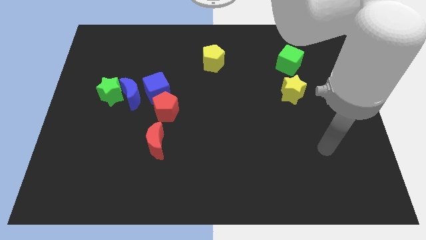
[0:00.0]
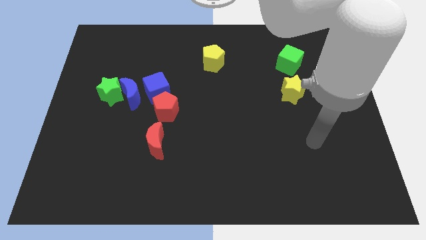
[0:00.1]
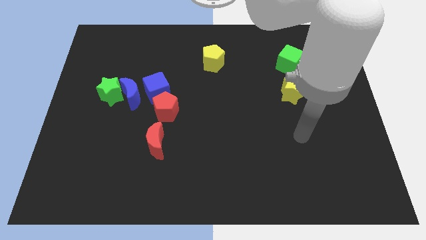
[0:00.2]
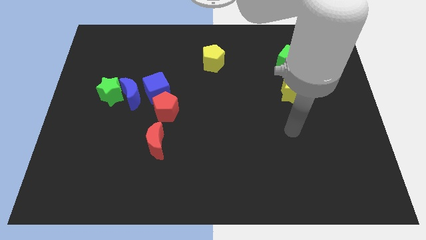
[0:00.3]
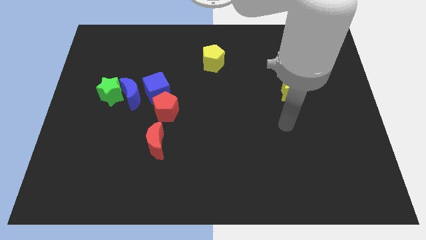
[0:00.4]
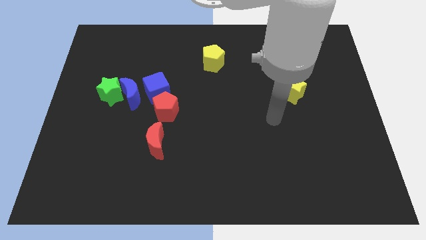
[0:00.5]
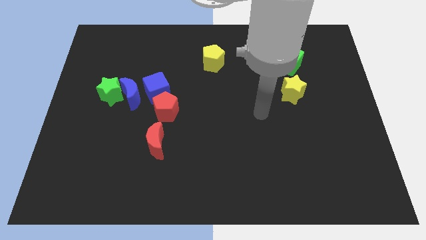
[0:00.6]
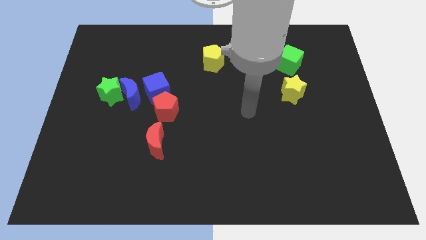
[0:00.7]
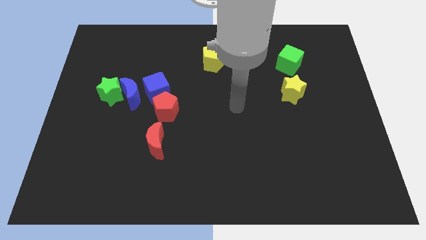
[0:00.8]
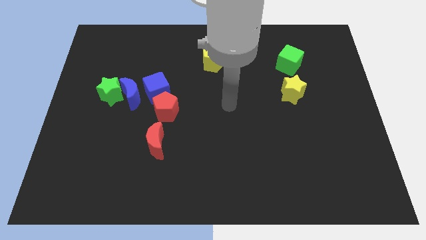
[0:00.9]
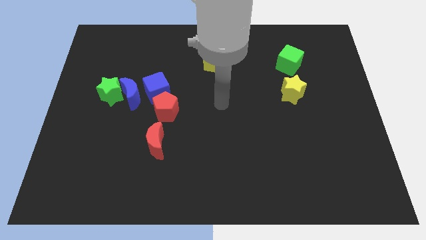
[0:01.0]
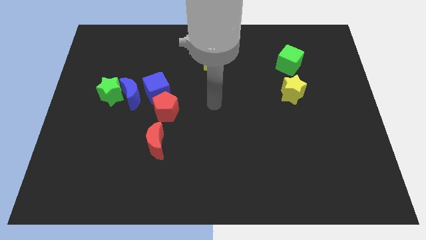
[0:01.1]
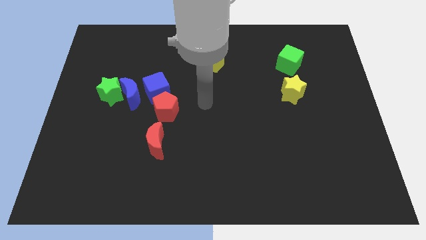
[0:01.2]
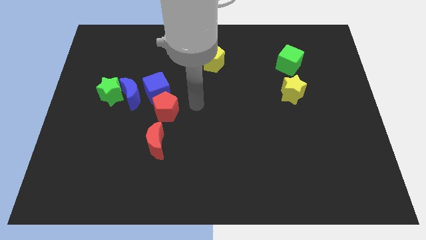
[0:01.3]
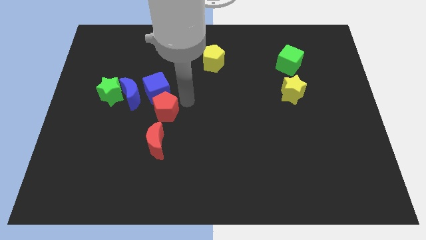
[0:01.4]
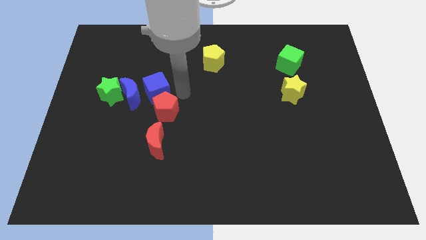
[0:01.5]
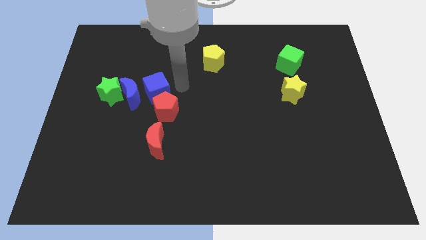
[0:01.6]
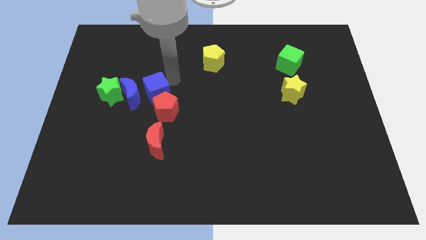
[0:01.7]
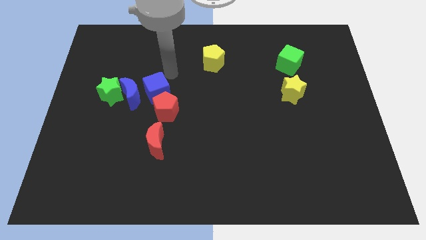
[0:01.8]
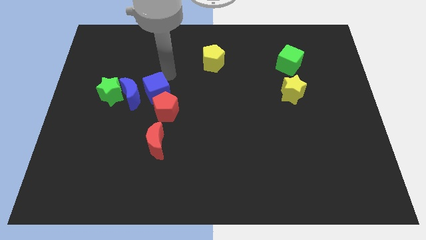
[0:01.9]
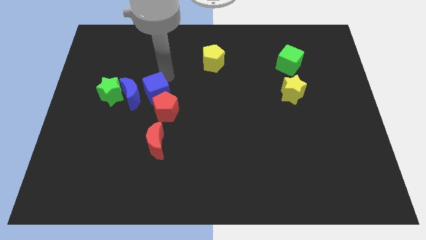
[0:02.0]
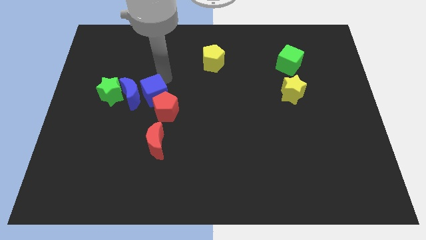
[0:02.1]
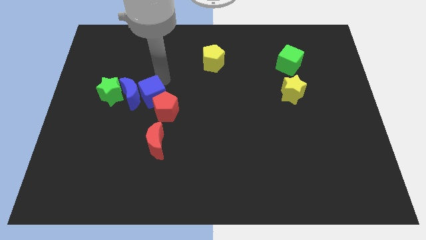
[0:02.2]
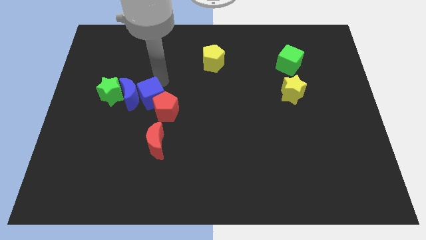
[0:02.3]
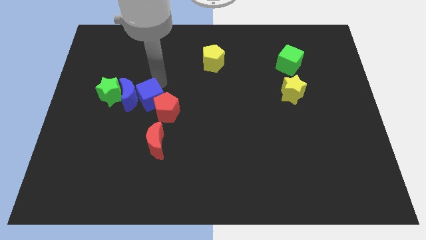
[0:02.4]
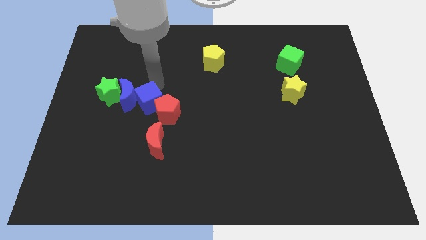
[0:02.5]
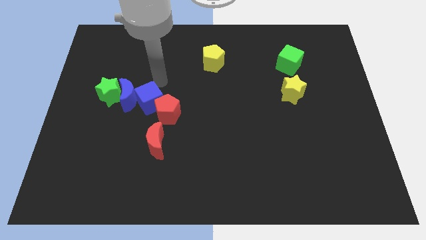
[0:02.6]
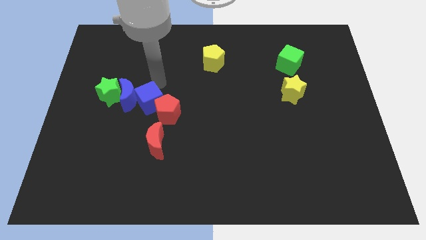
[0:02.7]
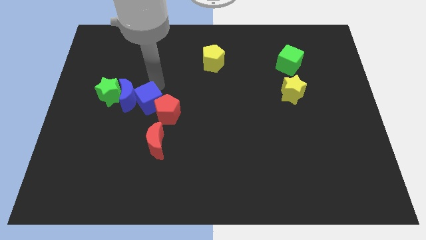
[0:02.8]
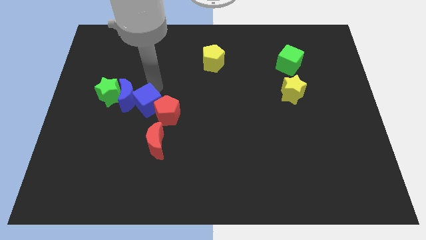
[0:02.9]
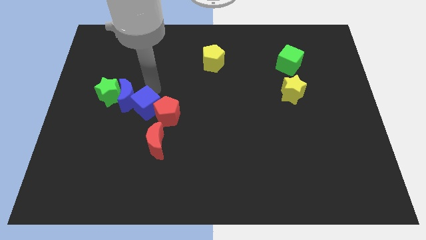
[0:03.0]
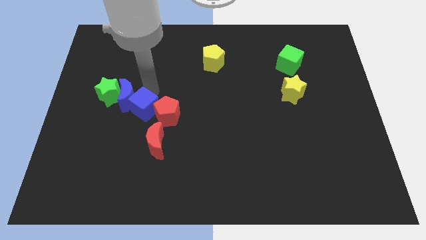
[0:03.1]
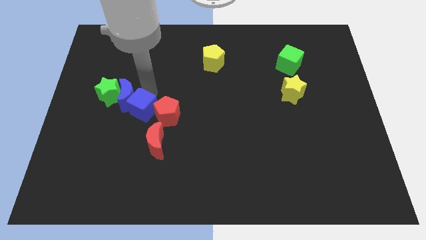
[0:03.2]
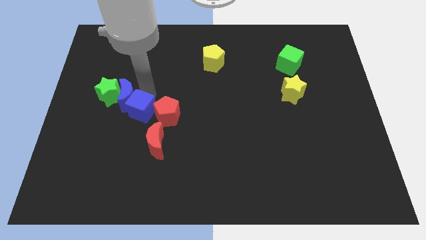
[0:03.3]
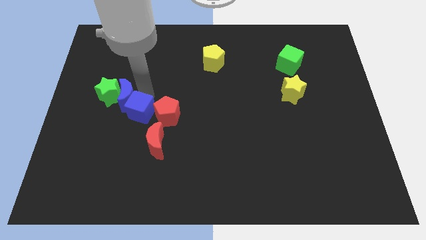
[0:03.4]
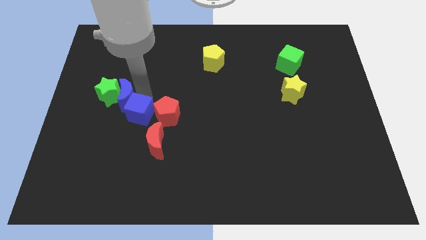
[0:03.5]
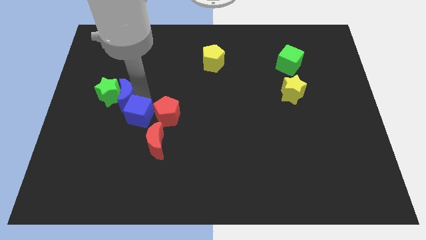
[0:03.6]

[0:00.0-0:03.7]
slide the blue cube down a little bit

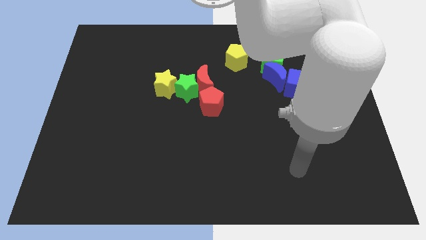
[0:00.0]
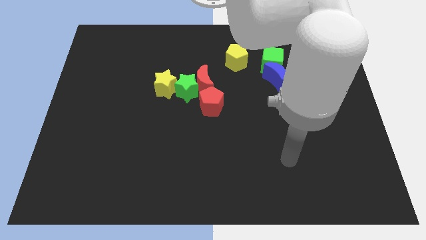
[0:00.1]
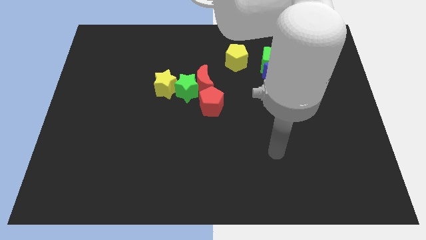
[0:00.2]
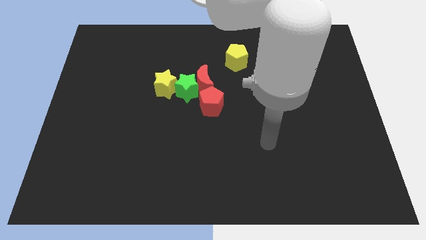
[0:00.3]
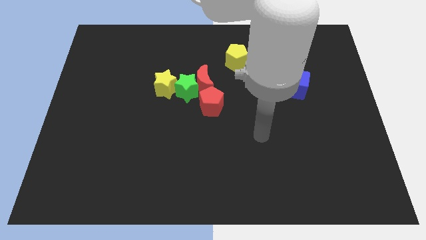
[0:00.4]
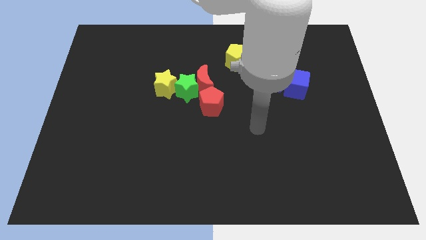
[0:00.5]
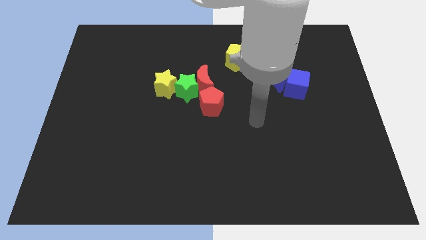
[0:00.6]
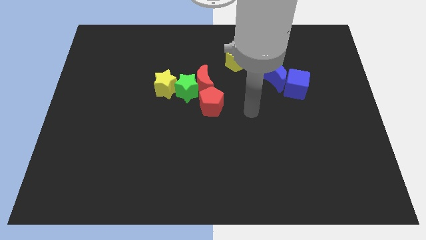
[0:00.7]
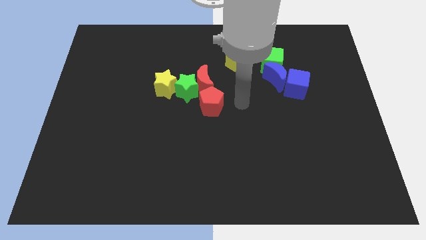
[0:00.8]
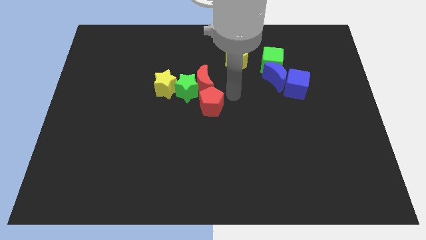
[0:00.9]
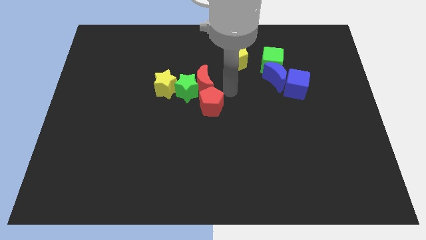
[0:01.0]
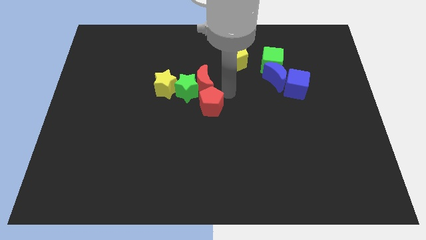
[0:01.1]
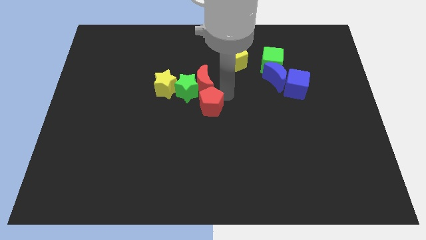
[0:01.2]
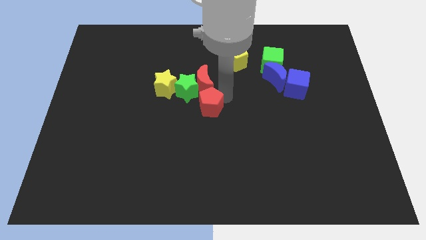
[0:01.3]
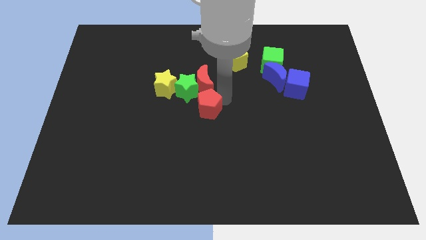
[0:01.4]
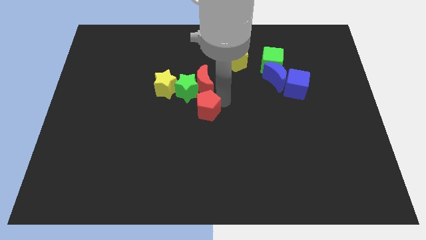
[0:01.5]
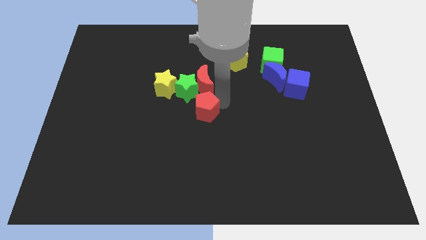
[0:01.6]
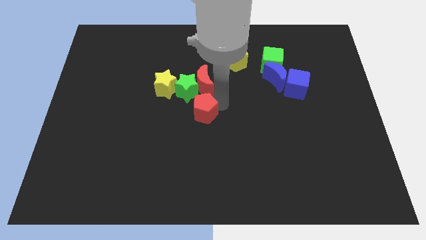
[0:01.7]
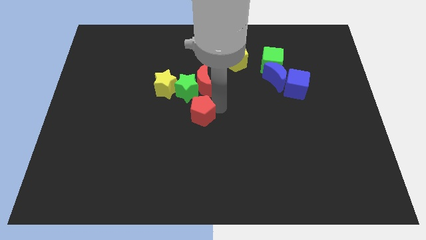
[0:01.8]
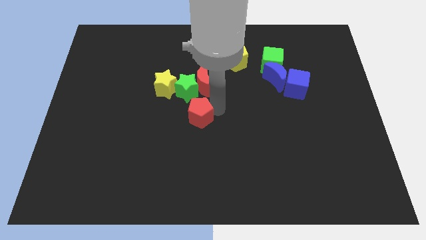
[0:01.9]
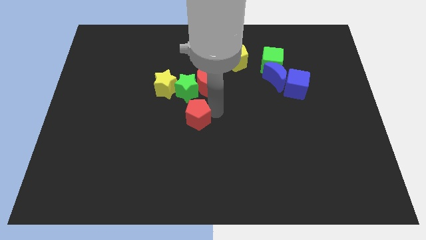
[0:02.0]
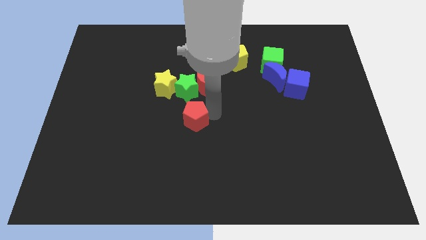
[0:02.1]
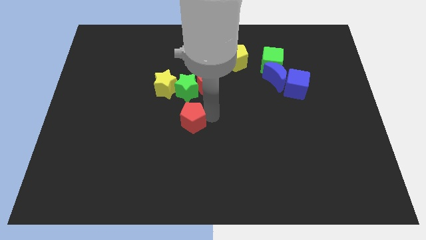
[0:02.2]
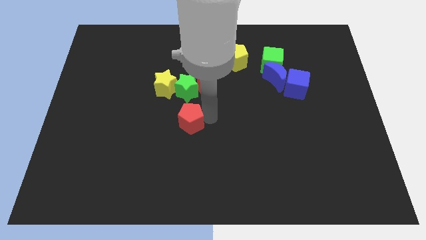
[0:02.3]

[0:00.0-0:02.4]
slide the red pentagon slightly downwards and then left

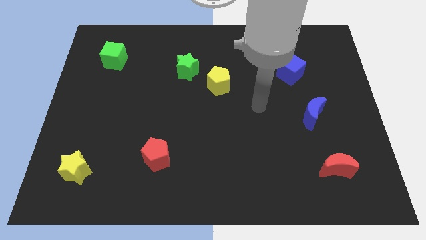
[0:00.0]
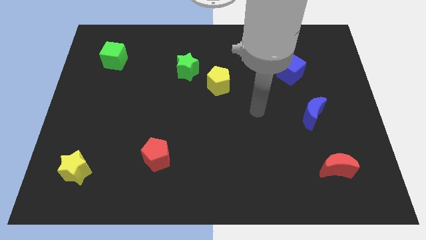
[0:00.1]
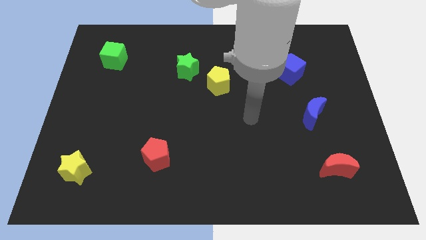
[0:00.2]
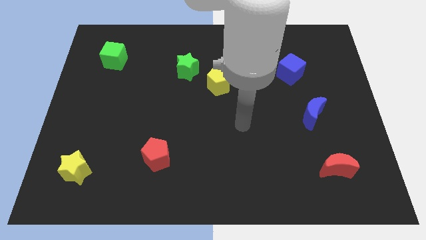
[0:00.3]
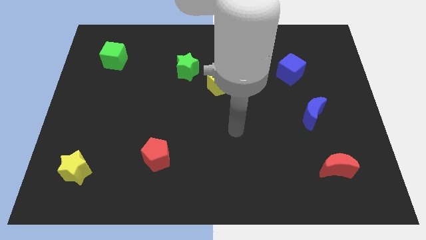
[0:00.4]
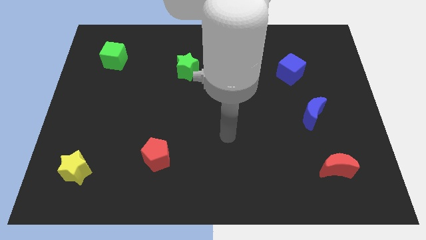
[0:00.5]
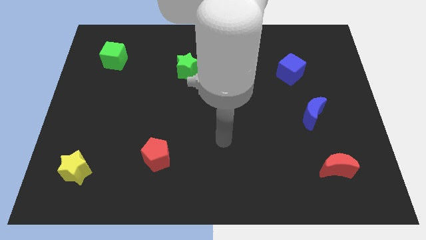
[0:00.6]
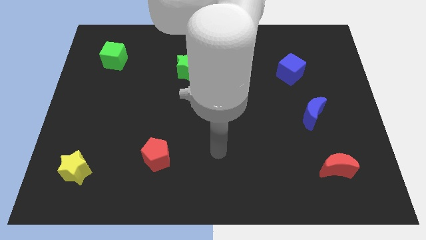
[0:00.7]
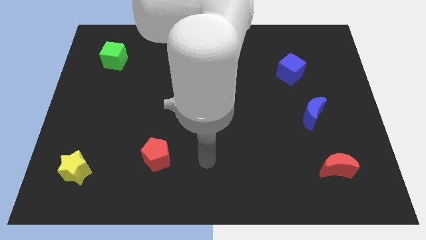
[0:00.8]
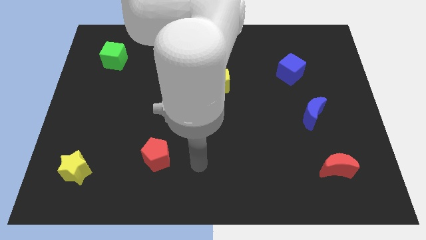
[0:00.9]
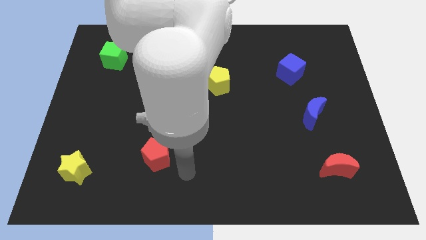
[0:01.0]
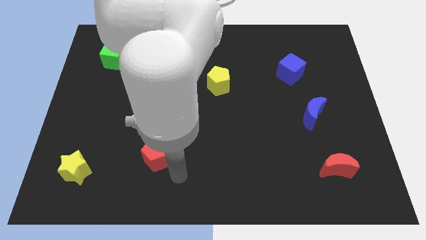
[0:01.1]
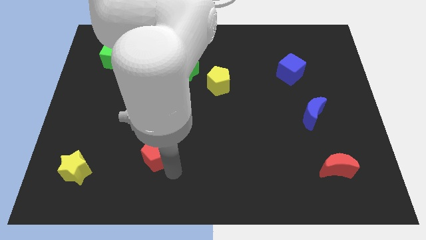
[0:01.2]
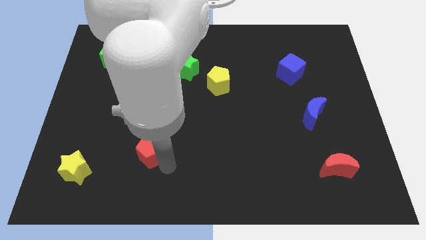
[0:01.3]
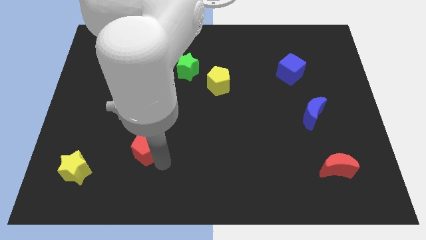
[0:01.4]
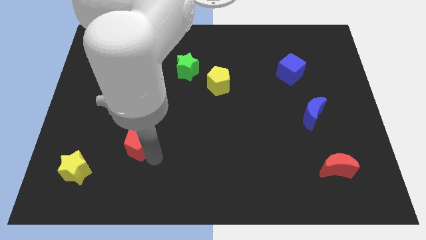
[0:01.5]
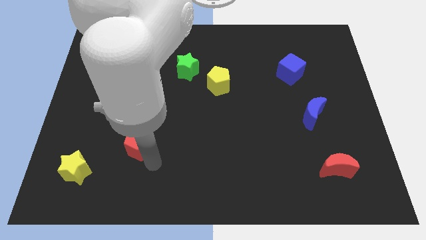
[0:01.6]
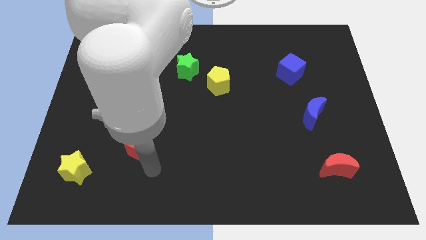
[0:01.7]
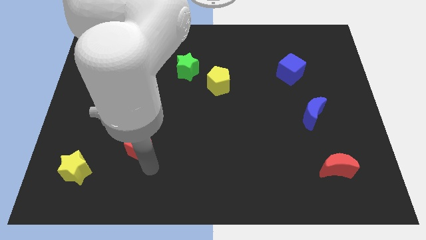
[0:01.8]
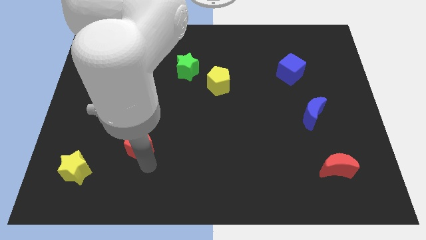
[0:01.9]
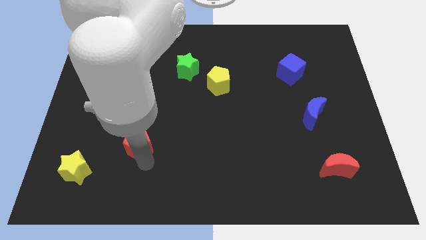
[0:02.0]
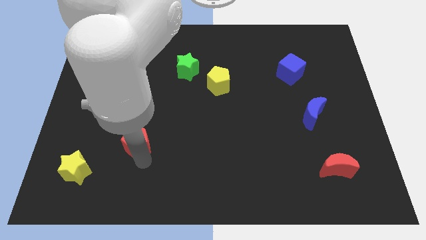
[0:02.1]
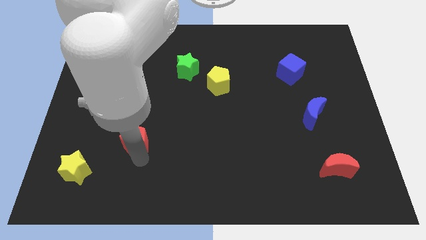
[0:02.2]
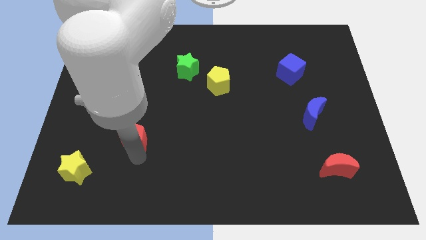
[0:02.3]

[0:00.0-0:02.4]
push the red pentagon up and to the left a bit
